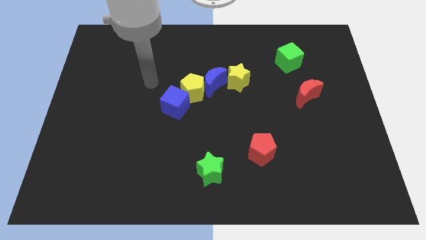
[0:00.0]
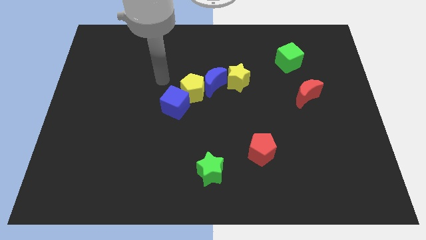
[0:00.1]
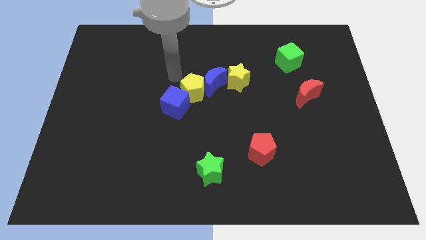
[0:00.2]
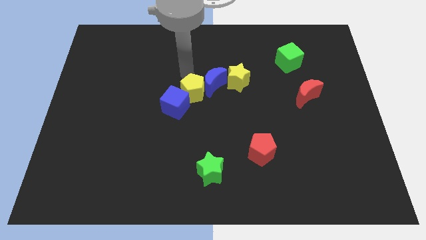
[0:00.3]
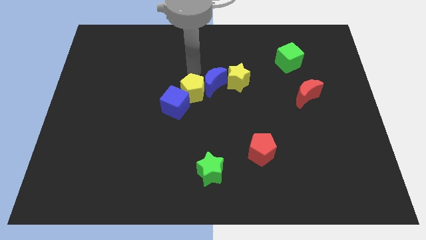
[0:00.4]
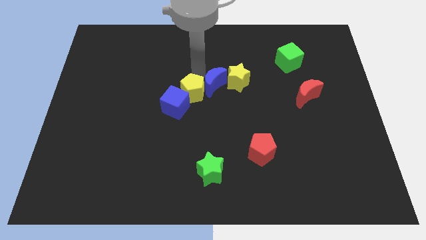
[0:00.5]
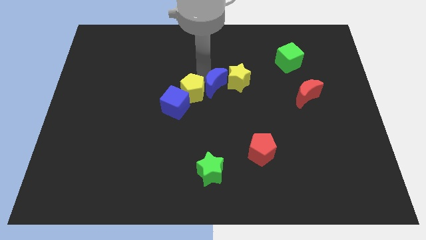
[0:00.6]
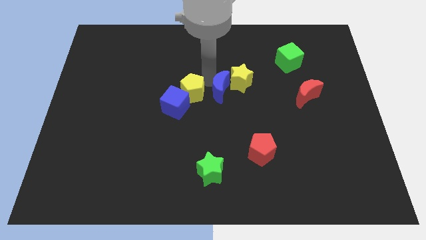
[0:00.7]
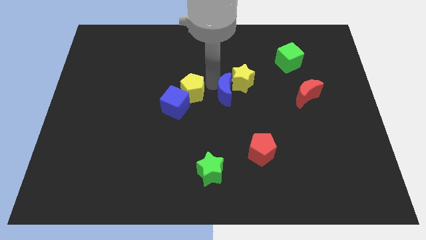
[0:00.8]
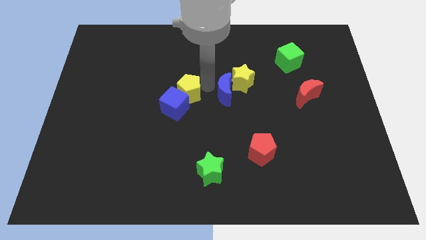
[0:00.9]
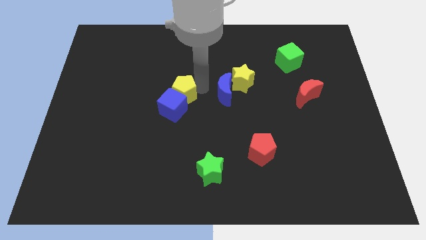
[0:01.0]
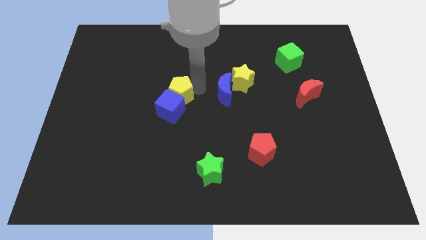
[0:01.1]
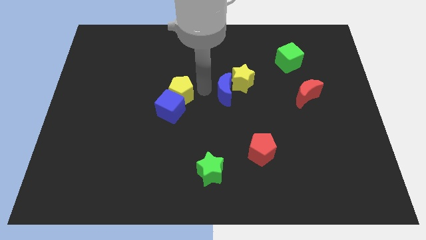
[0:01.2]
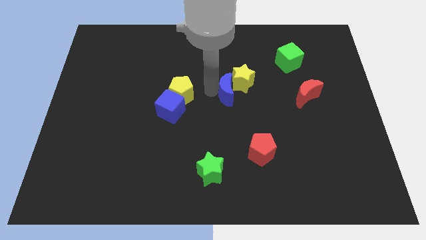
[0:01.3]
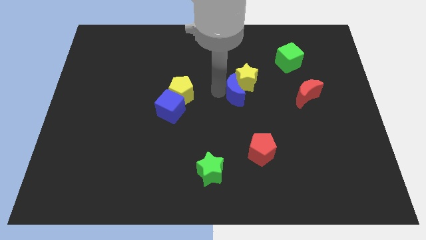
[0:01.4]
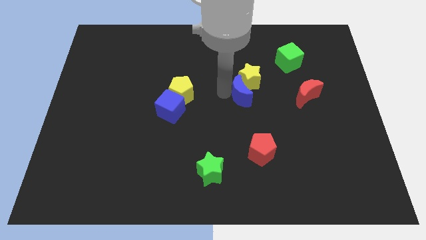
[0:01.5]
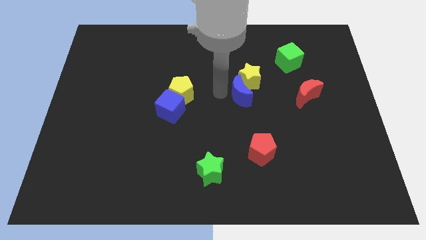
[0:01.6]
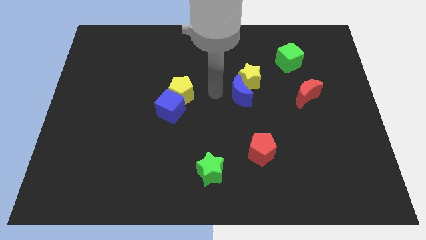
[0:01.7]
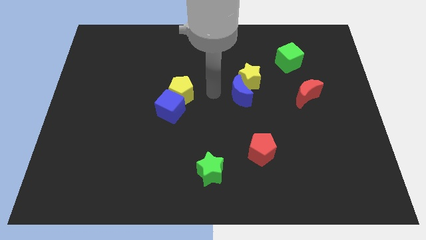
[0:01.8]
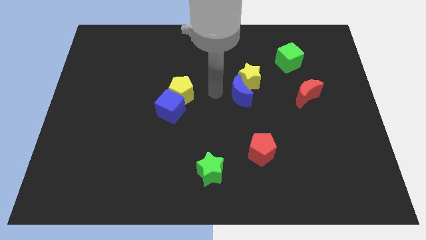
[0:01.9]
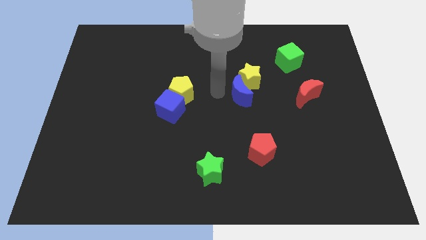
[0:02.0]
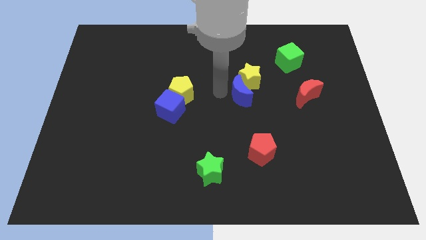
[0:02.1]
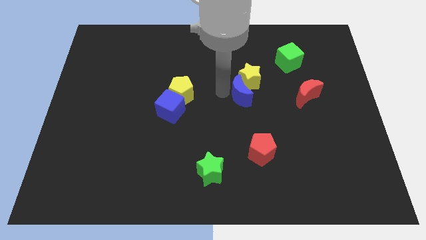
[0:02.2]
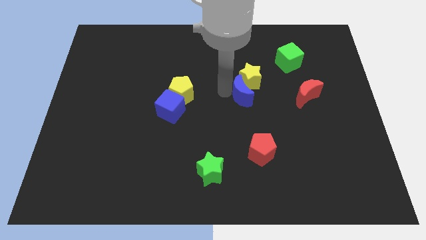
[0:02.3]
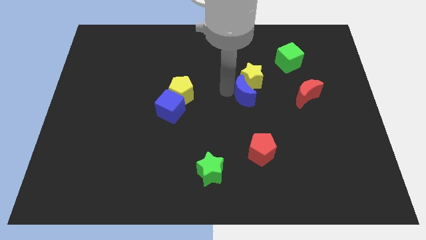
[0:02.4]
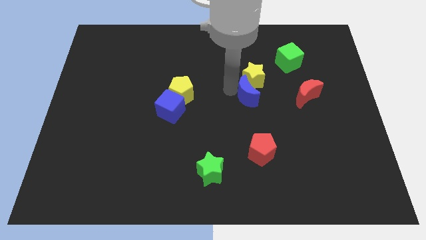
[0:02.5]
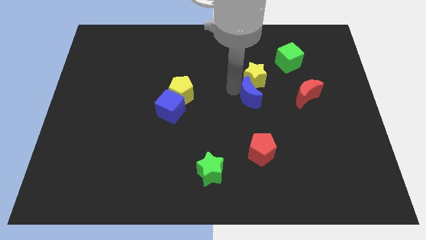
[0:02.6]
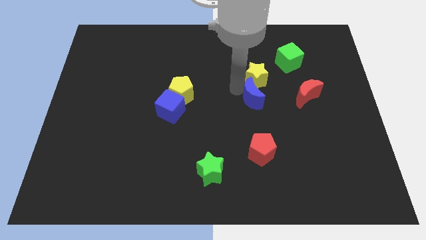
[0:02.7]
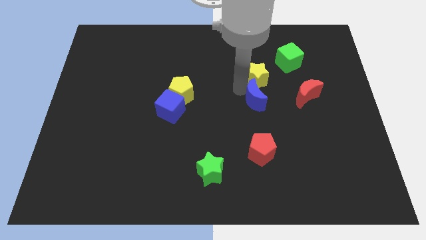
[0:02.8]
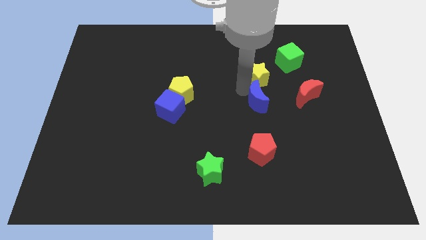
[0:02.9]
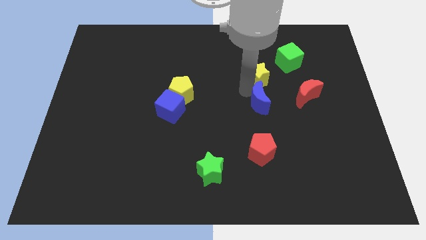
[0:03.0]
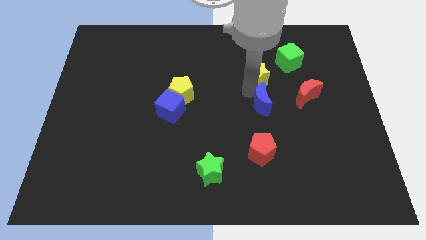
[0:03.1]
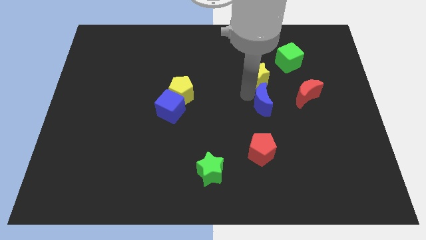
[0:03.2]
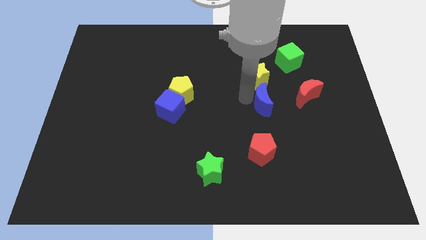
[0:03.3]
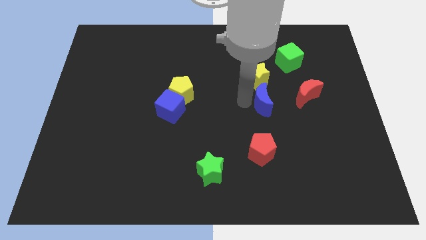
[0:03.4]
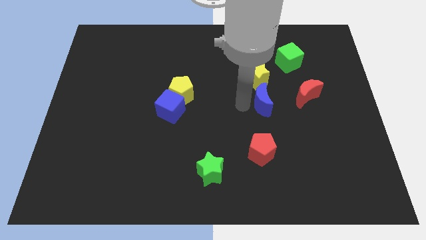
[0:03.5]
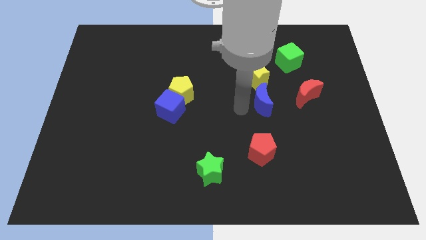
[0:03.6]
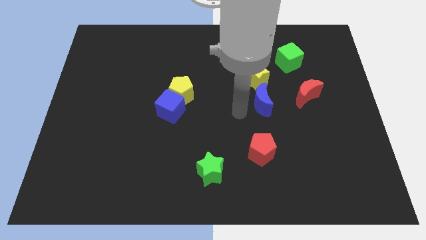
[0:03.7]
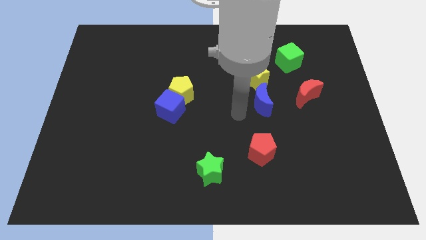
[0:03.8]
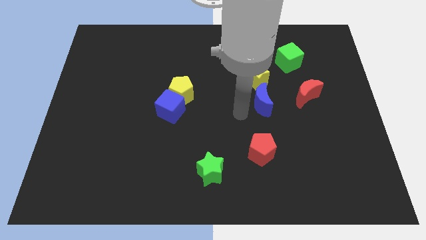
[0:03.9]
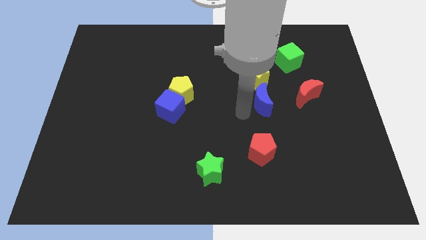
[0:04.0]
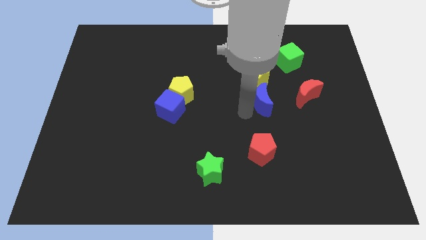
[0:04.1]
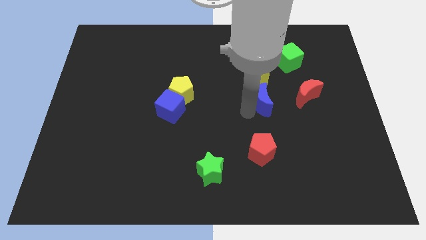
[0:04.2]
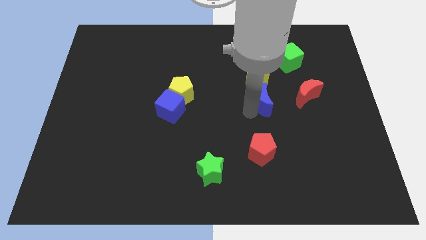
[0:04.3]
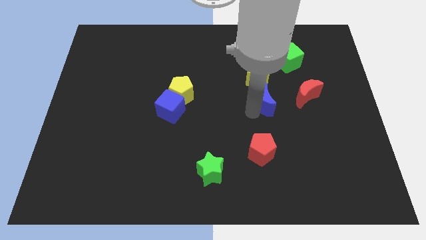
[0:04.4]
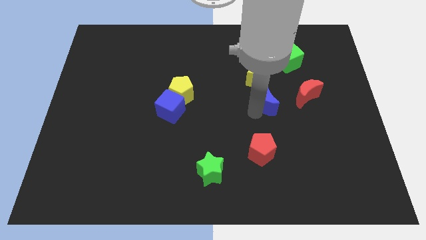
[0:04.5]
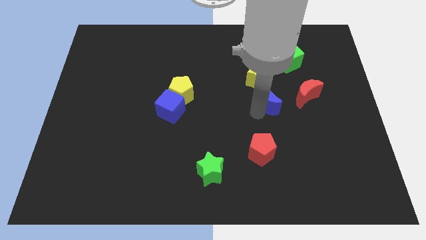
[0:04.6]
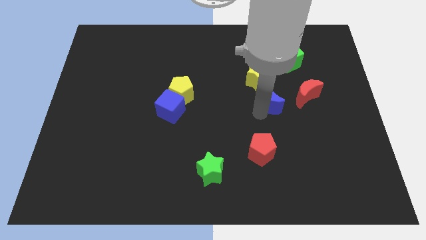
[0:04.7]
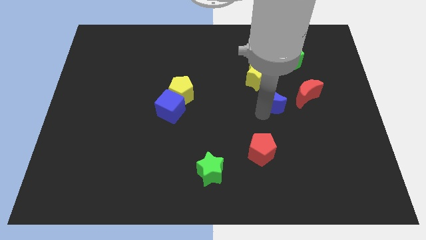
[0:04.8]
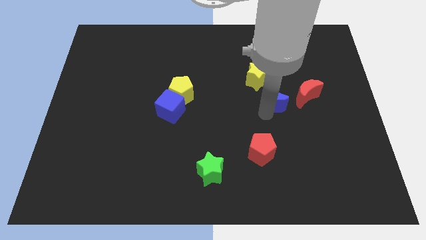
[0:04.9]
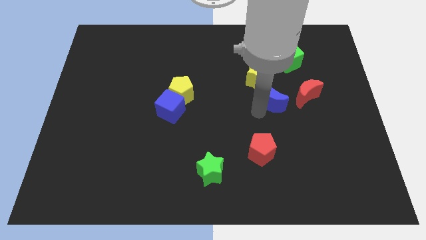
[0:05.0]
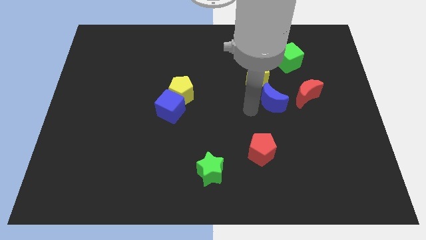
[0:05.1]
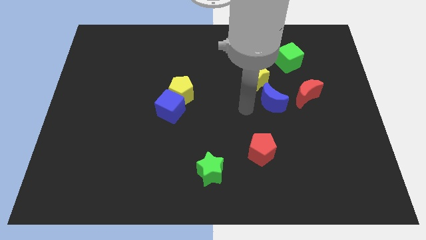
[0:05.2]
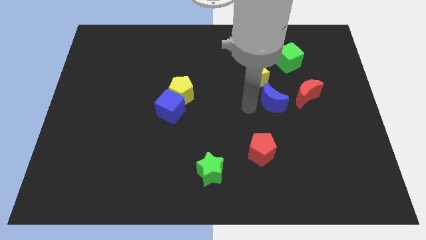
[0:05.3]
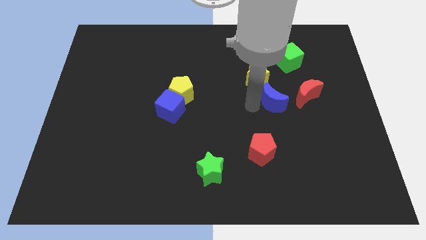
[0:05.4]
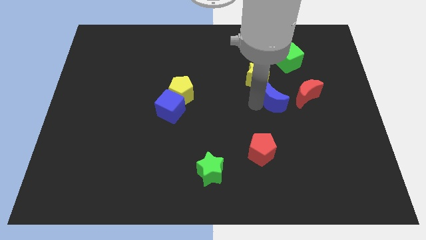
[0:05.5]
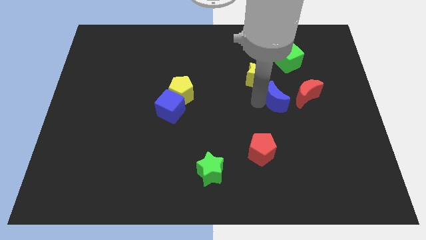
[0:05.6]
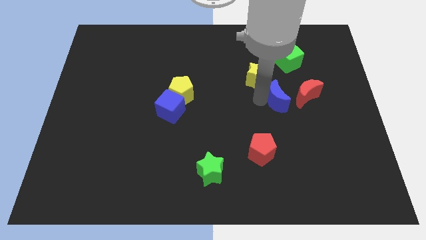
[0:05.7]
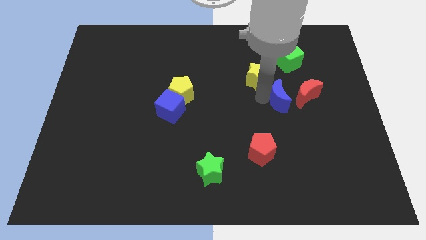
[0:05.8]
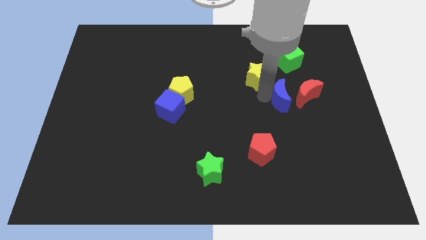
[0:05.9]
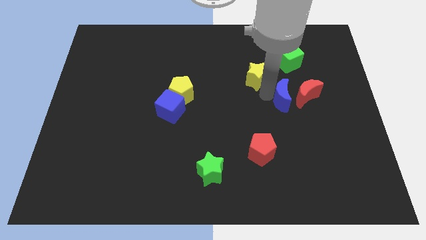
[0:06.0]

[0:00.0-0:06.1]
push the blue moon towards the red moon

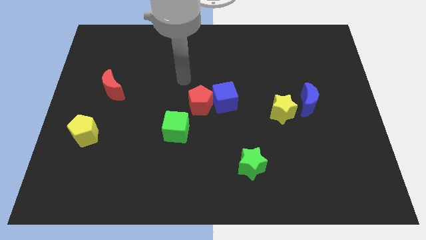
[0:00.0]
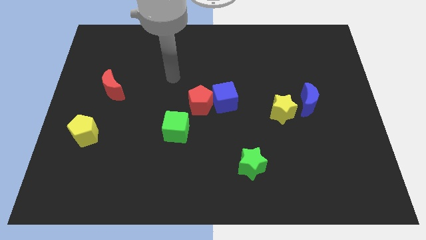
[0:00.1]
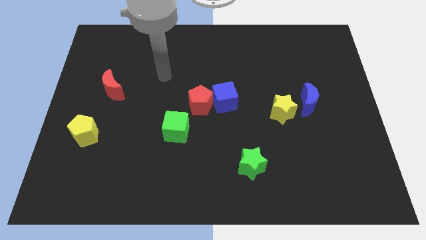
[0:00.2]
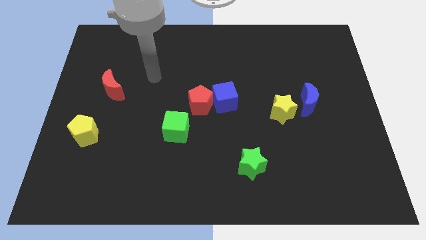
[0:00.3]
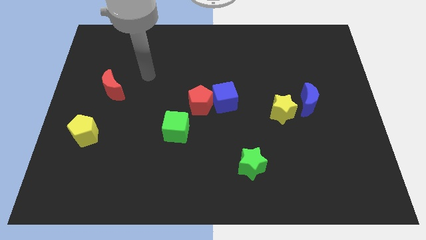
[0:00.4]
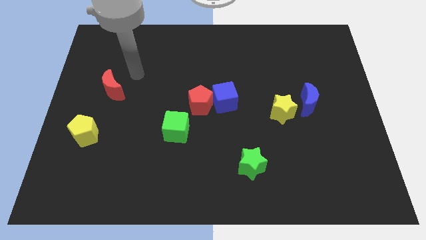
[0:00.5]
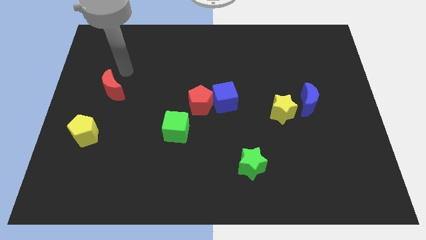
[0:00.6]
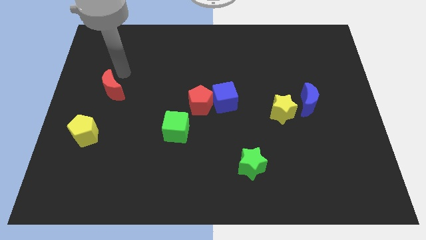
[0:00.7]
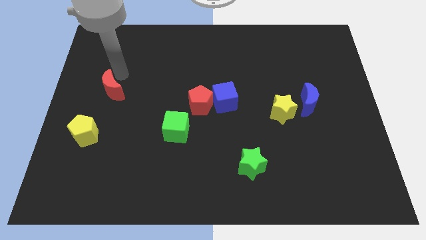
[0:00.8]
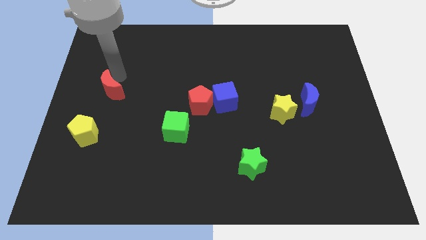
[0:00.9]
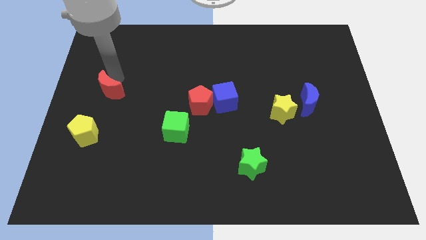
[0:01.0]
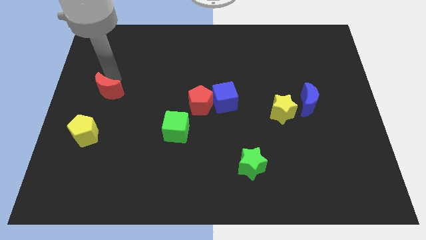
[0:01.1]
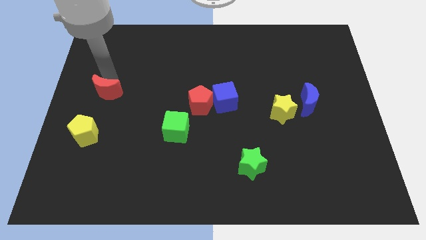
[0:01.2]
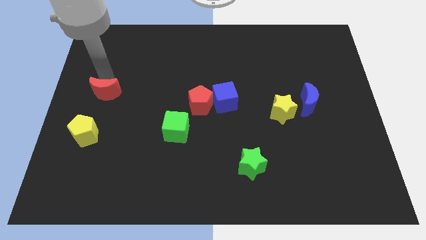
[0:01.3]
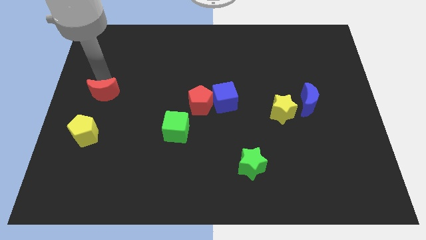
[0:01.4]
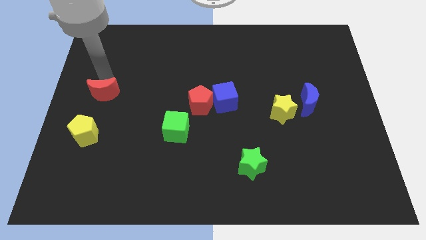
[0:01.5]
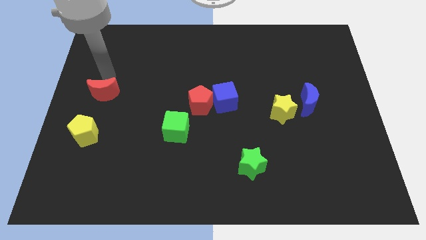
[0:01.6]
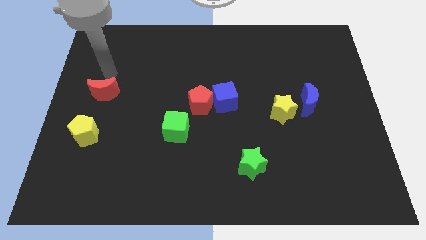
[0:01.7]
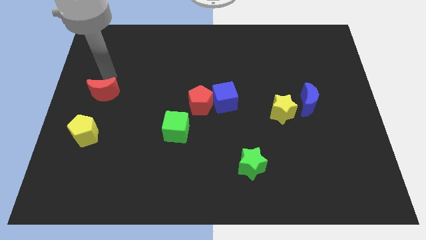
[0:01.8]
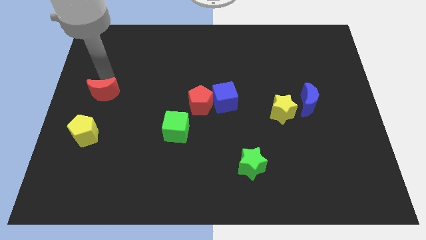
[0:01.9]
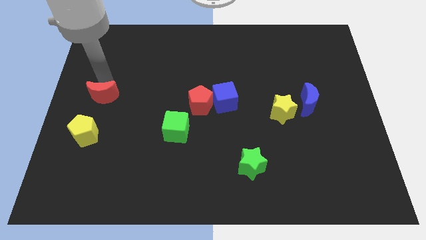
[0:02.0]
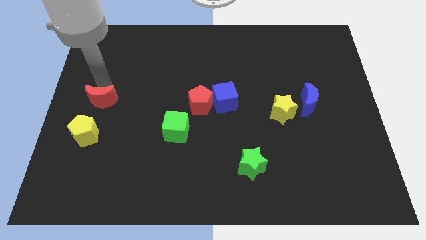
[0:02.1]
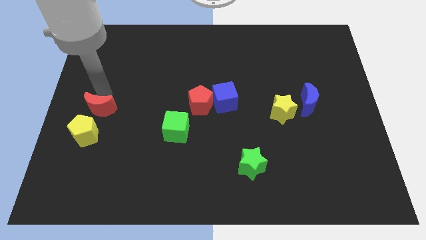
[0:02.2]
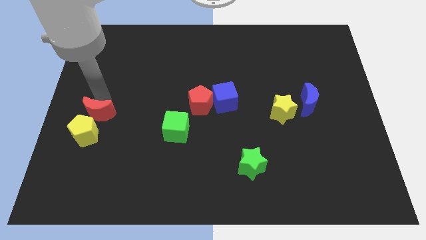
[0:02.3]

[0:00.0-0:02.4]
push the red moon to the yellow pentagon
